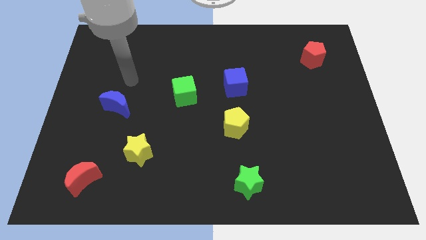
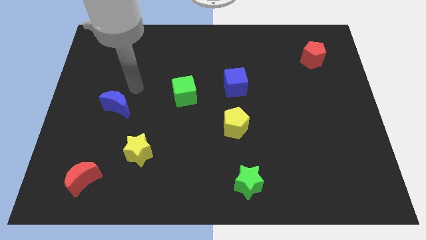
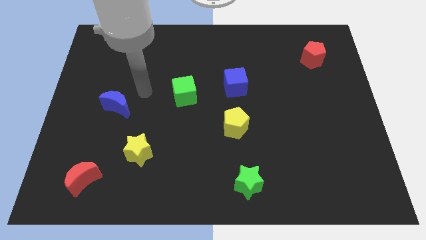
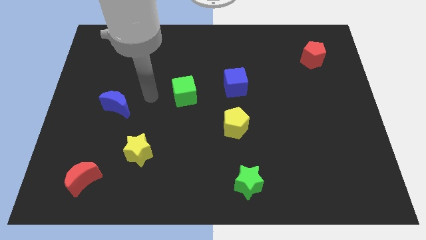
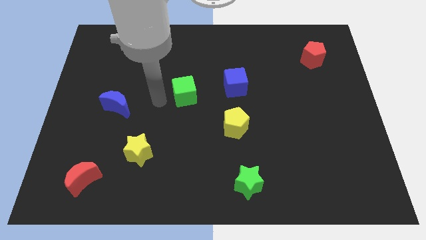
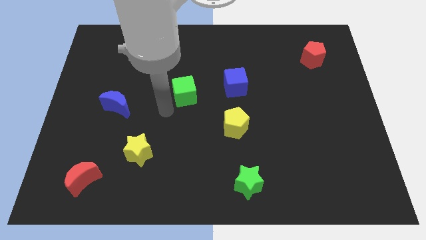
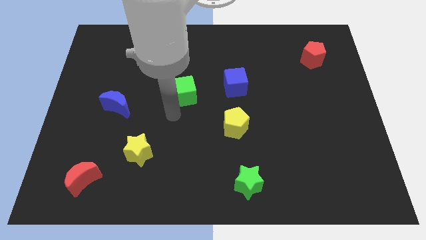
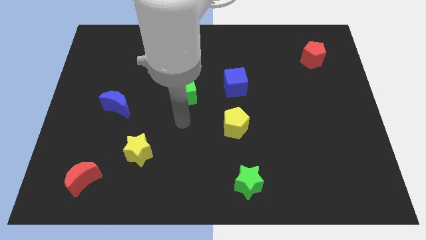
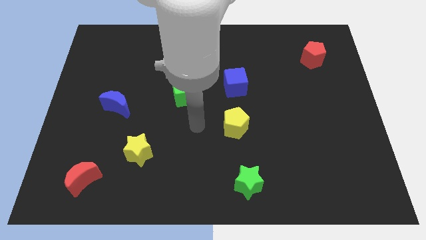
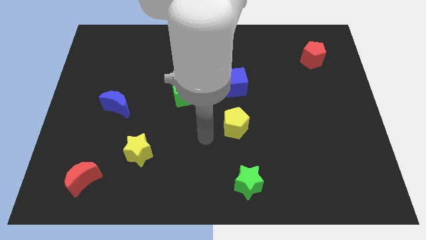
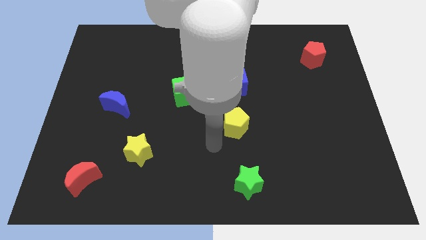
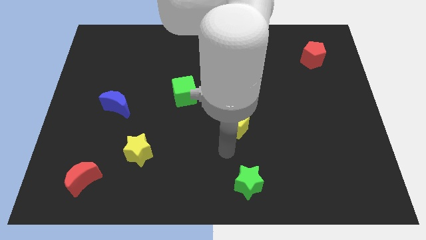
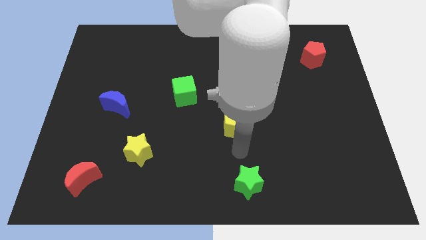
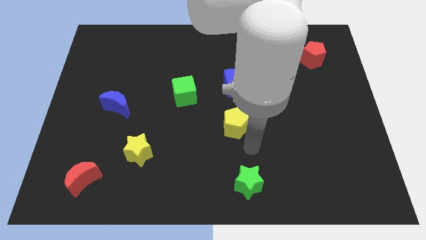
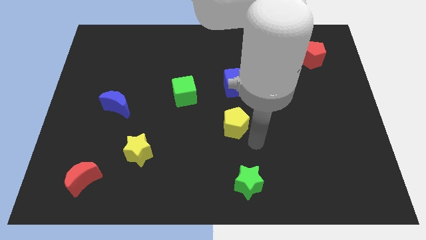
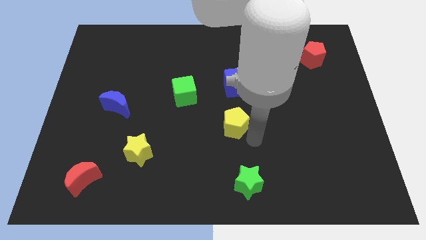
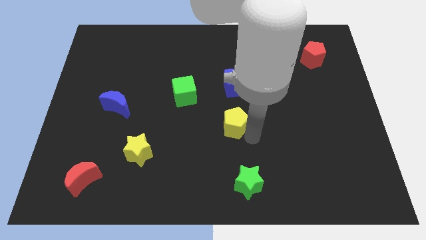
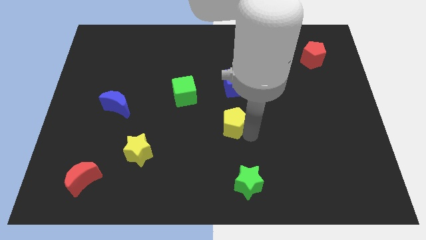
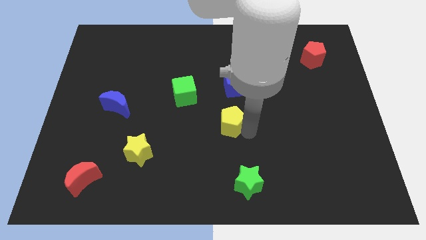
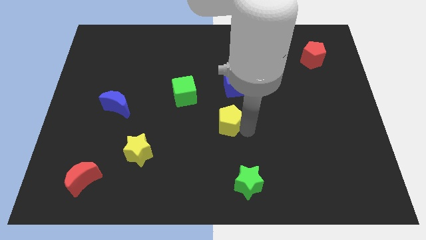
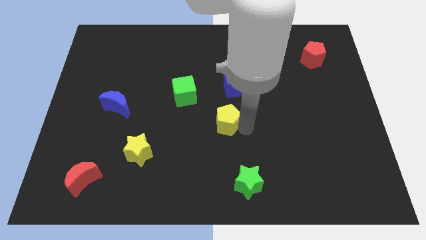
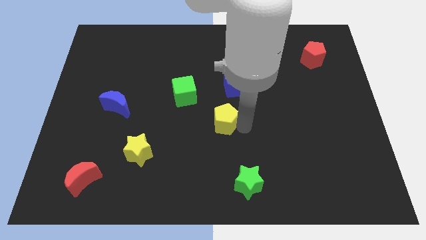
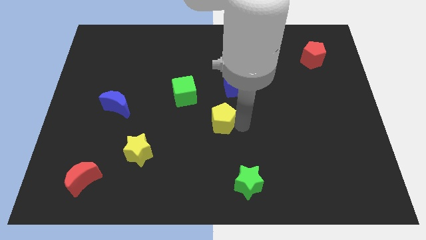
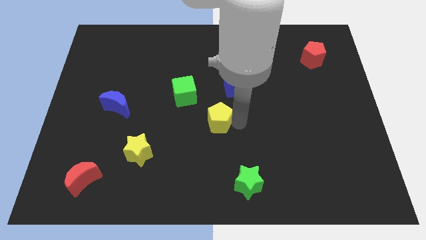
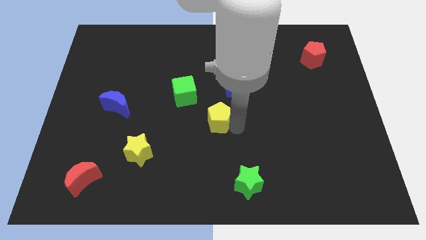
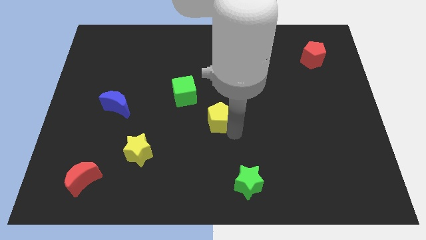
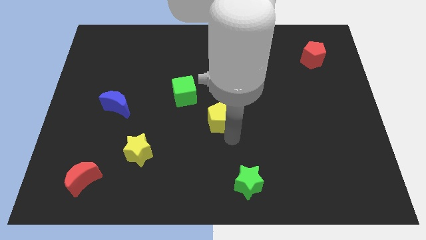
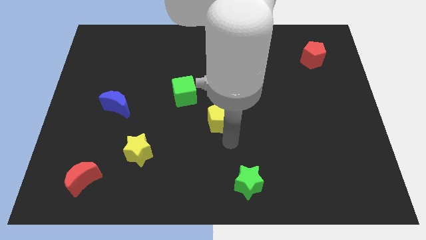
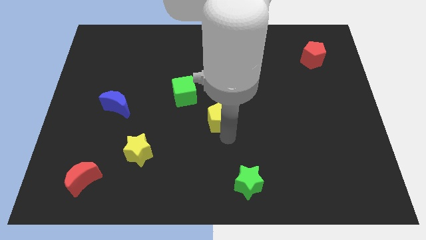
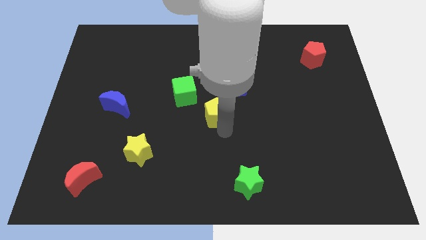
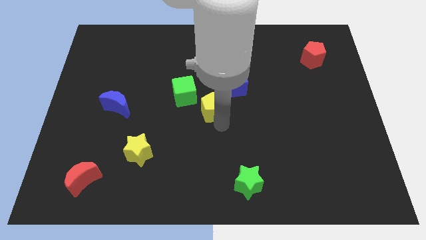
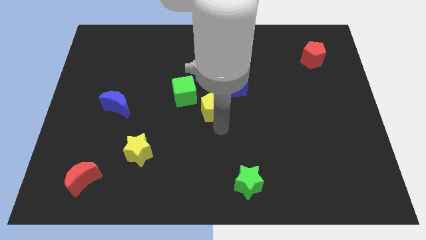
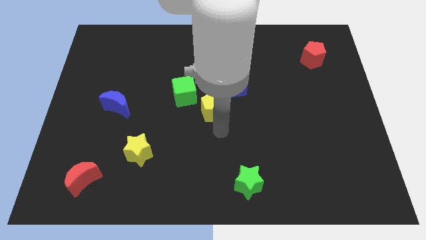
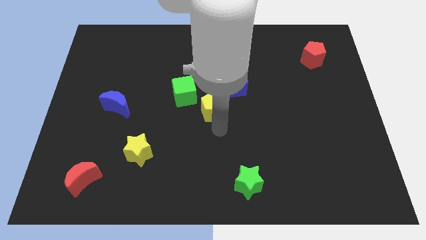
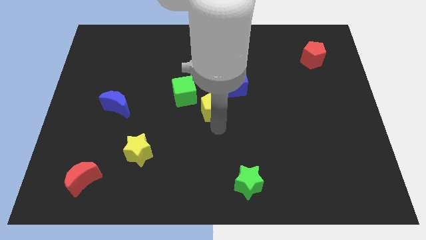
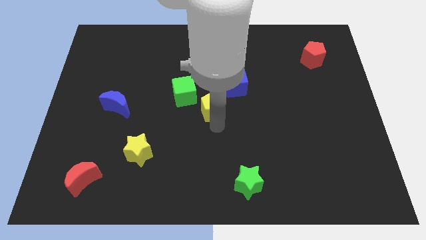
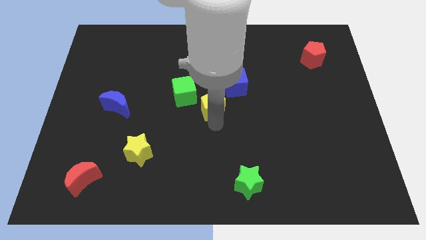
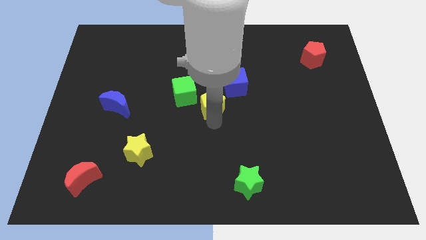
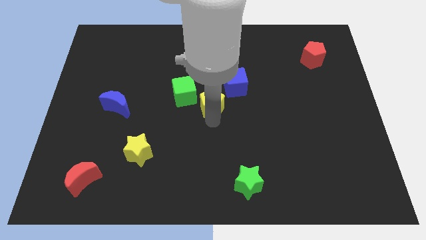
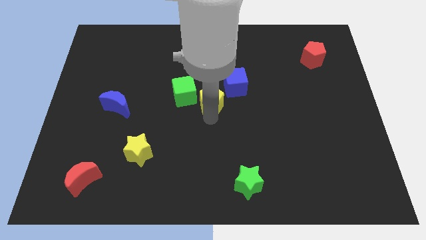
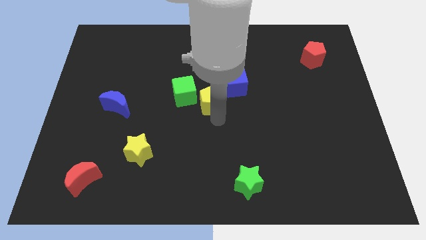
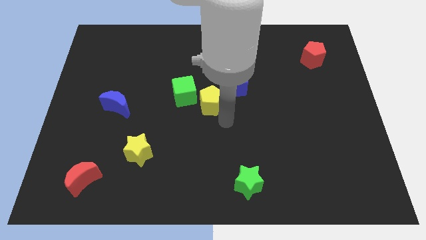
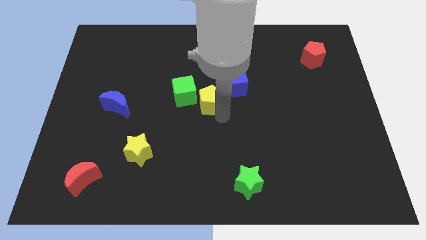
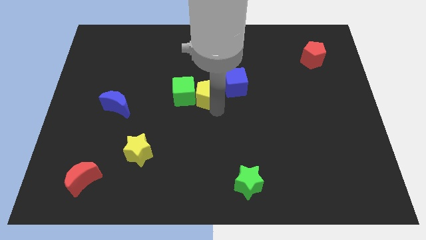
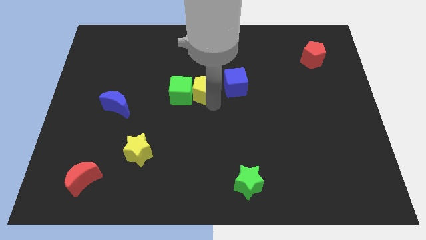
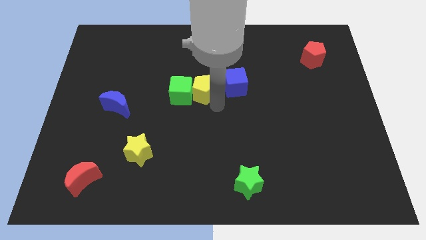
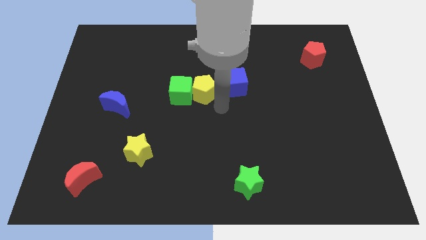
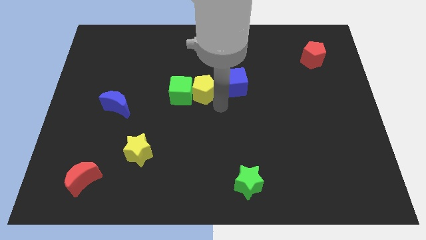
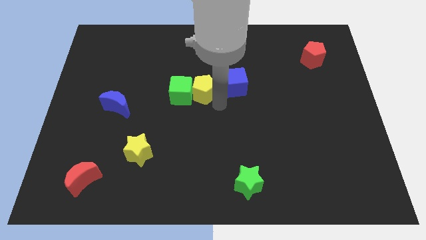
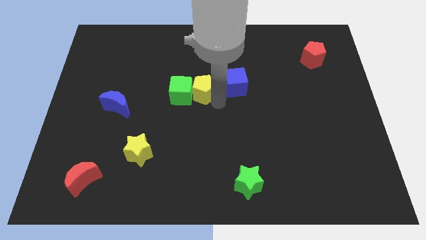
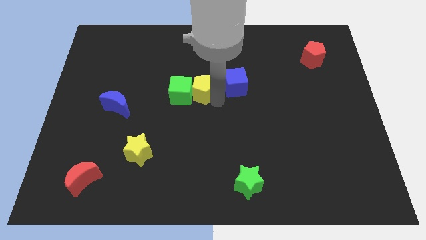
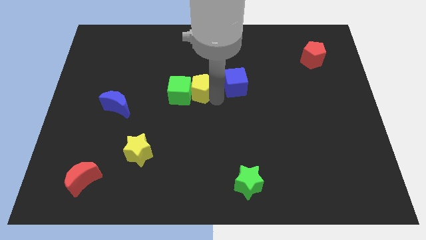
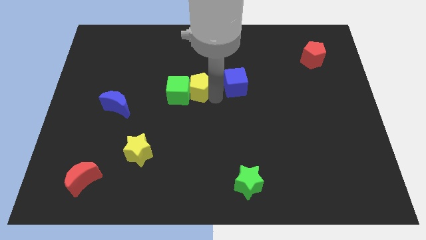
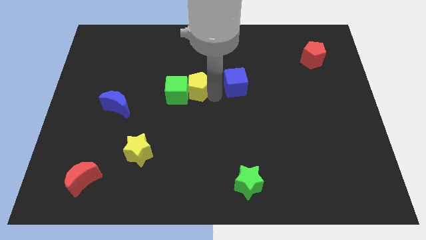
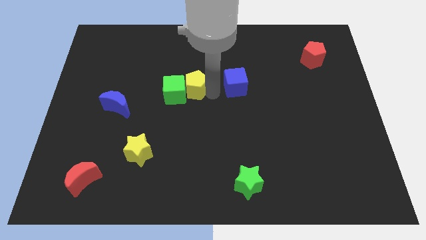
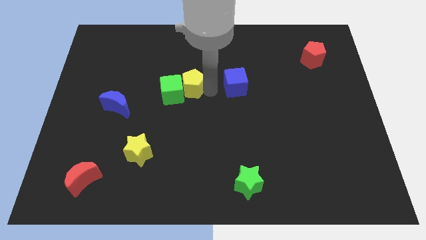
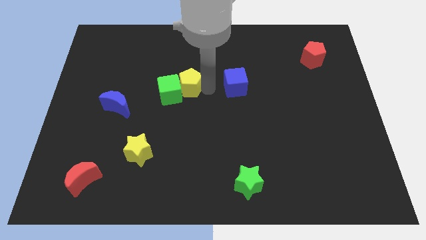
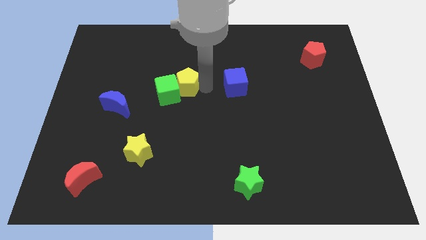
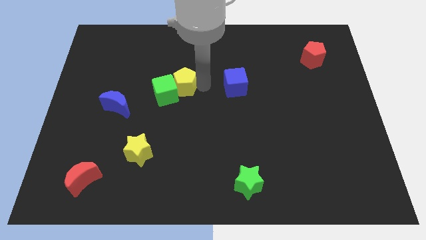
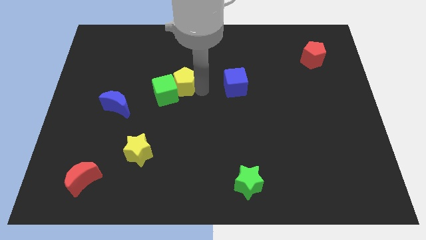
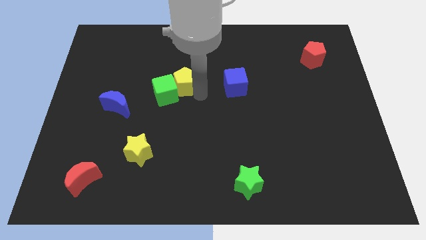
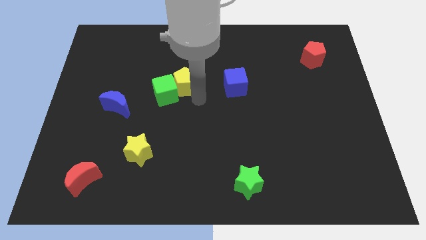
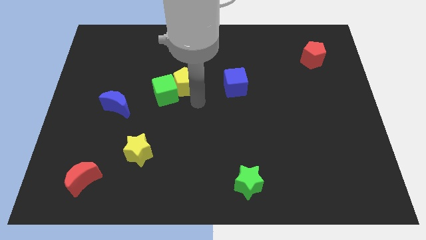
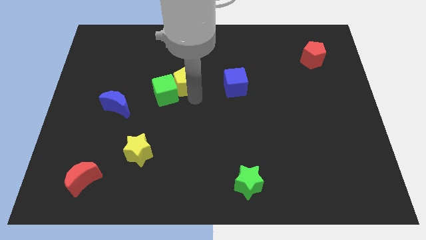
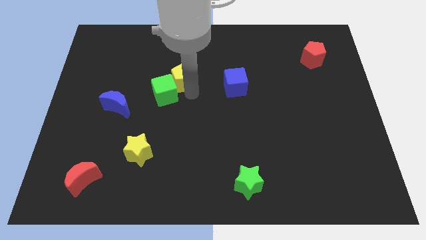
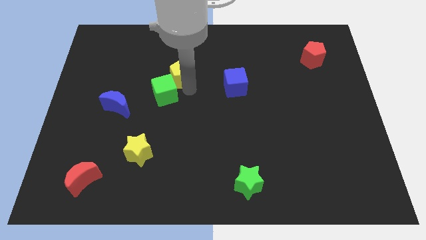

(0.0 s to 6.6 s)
push the yellow pentagon up and left

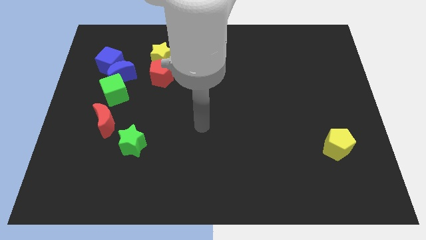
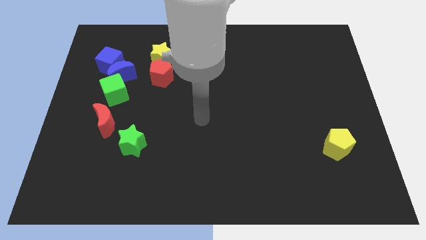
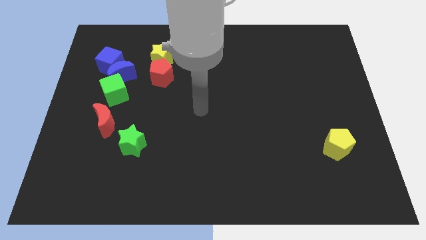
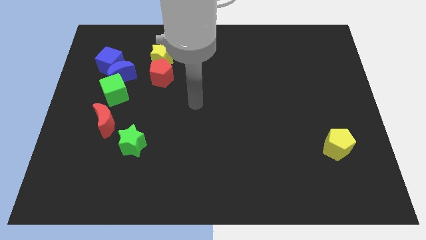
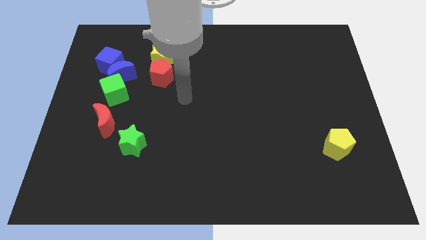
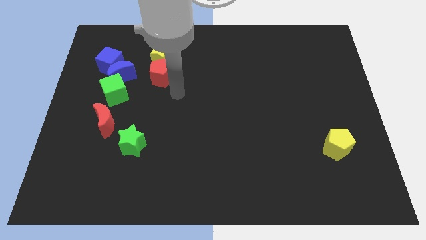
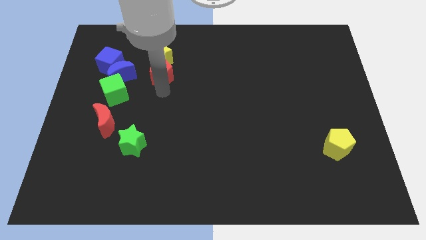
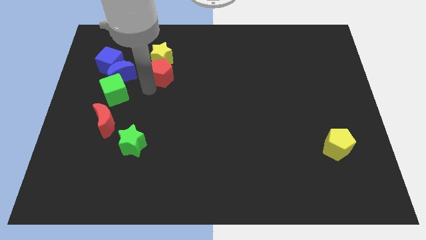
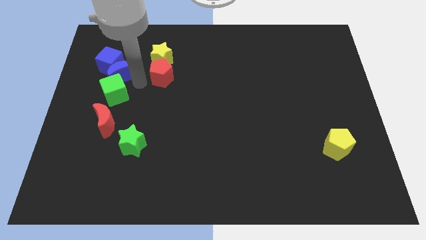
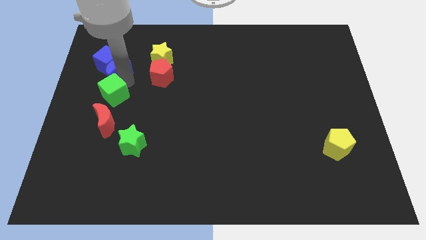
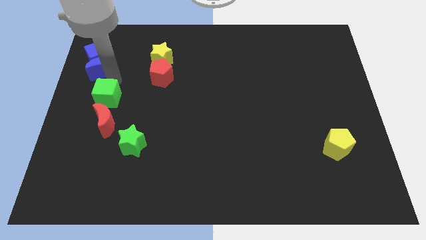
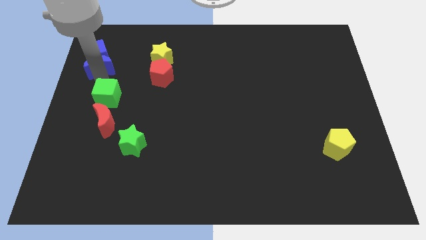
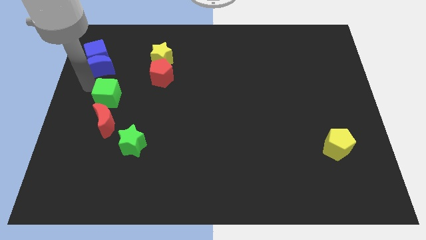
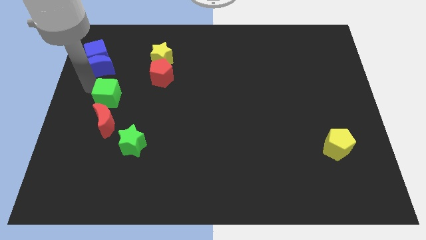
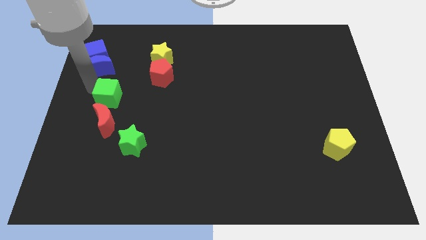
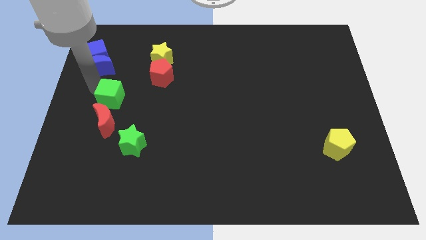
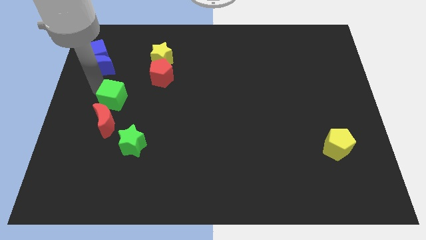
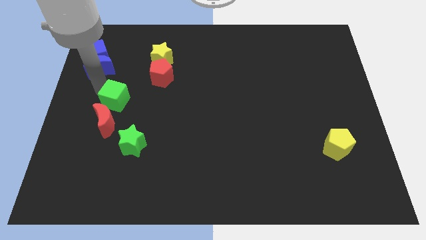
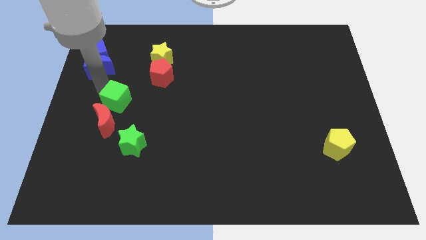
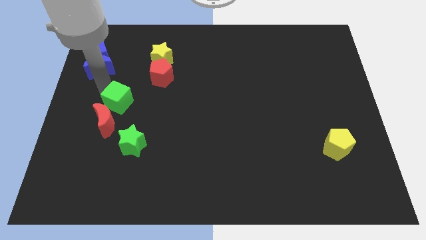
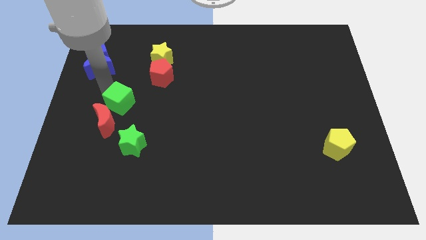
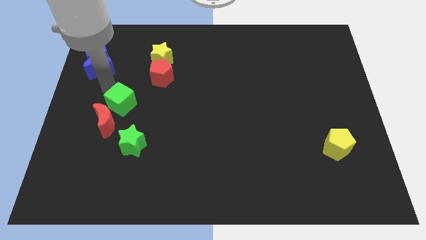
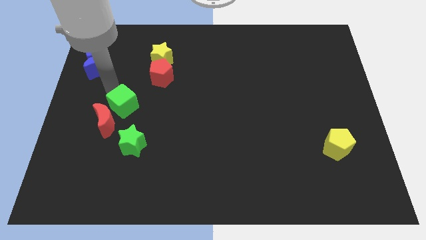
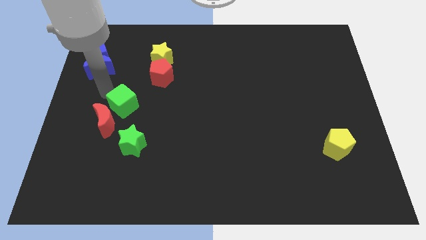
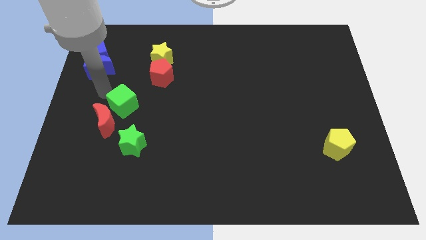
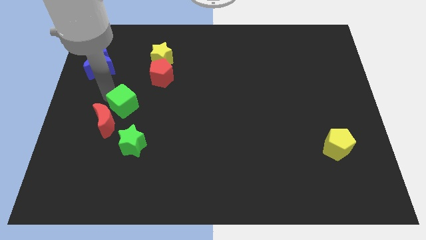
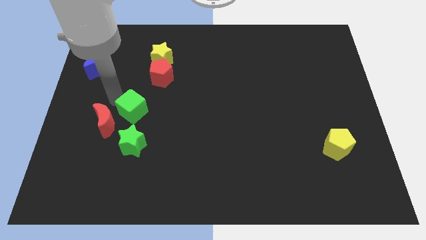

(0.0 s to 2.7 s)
move the green cube downwards and then to the right a bit
